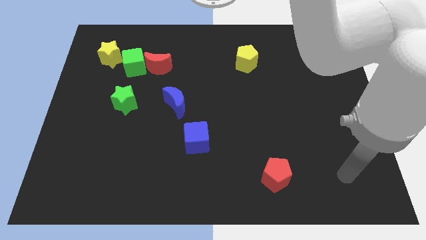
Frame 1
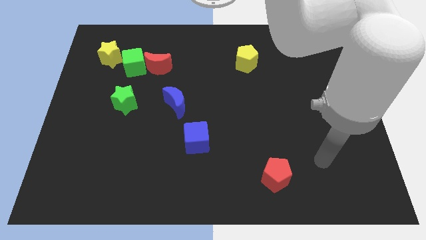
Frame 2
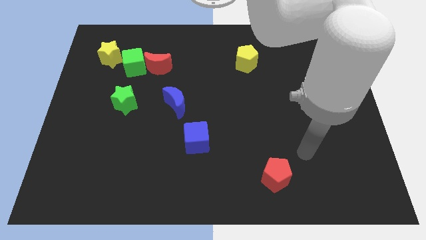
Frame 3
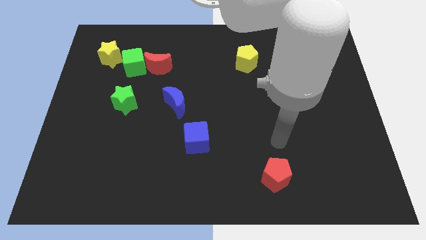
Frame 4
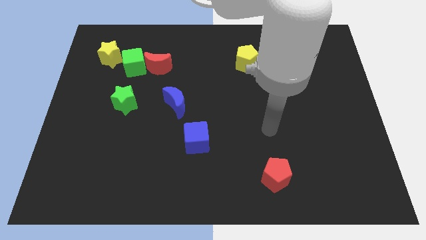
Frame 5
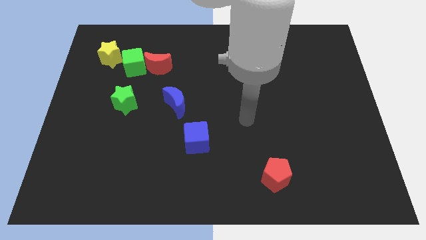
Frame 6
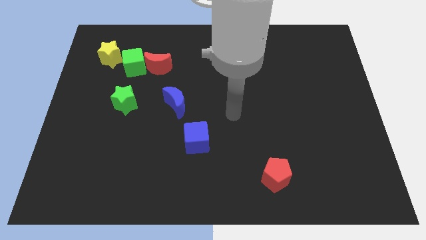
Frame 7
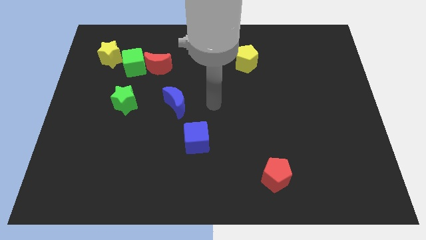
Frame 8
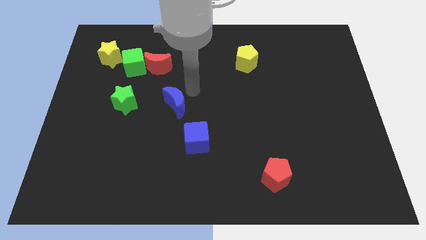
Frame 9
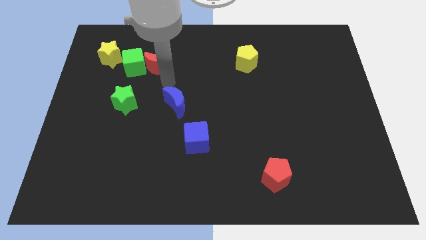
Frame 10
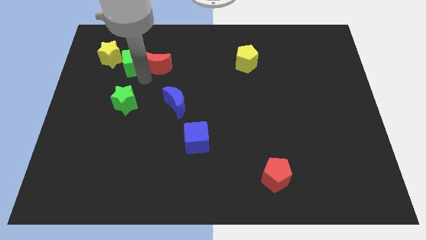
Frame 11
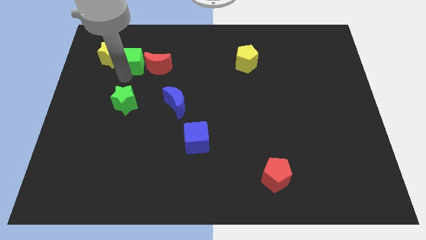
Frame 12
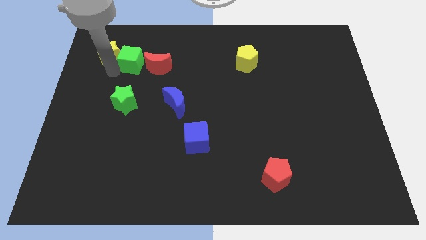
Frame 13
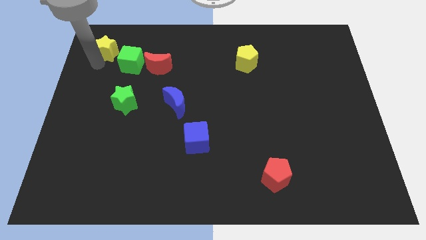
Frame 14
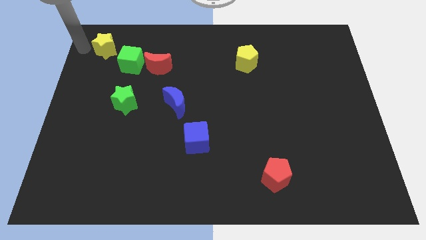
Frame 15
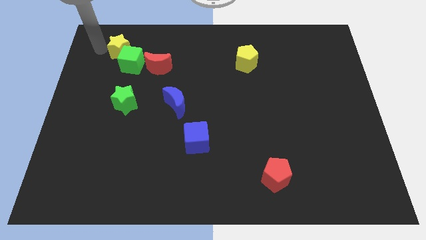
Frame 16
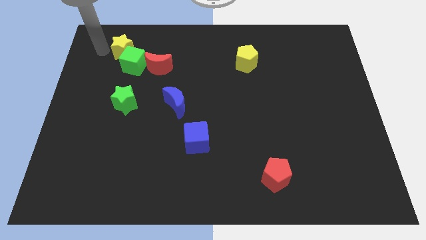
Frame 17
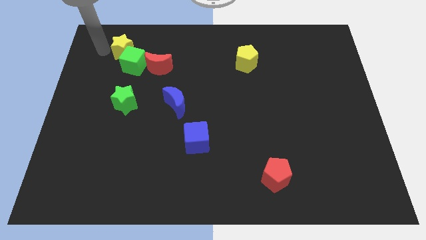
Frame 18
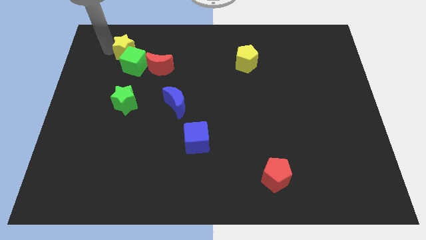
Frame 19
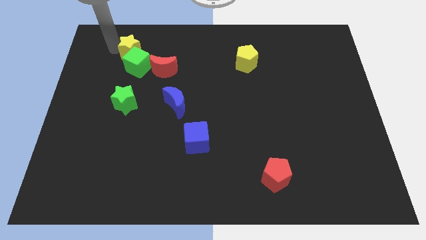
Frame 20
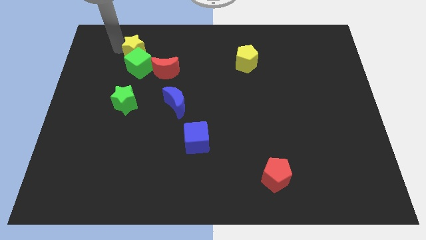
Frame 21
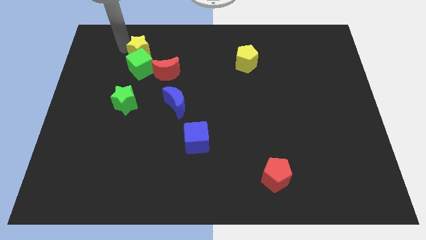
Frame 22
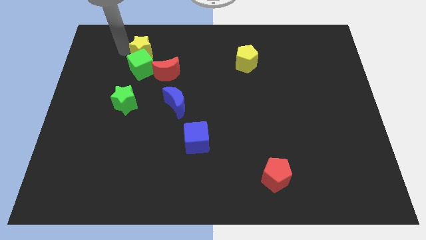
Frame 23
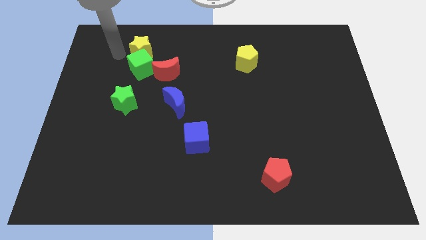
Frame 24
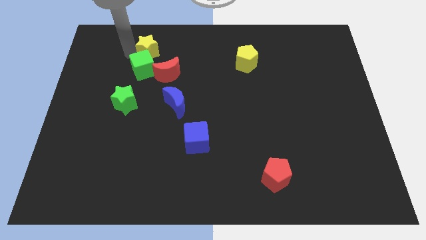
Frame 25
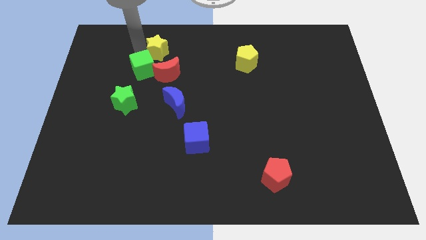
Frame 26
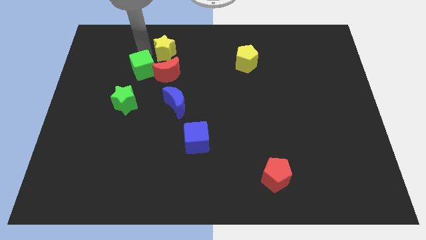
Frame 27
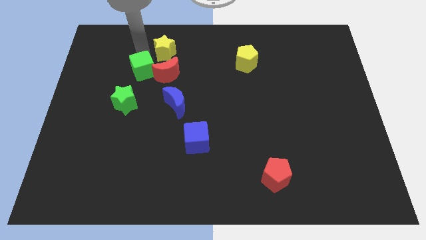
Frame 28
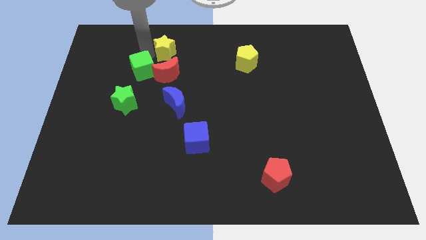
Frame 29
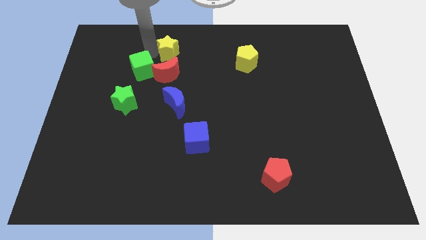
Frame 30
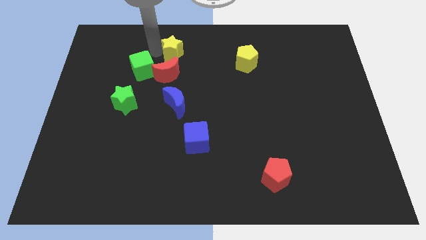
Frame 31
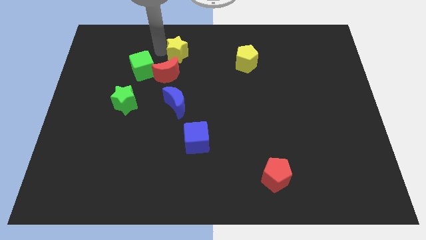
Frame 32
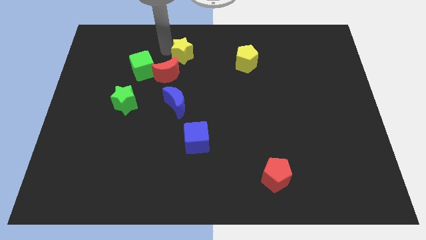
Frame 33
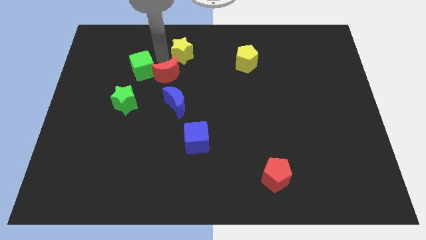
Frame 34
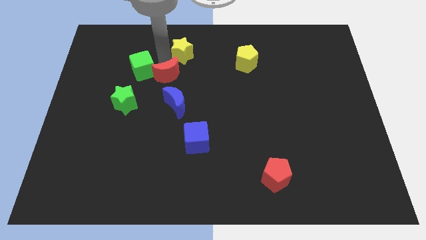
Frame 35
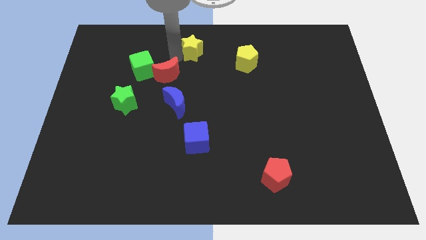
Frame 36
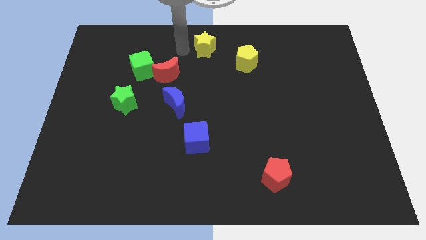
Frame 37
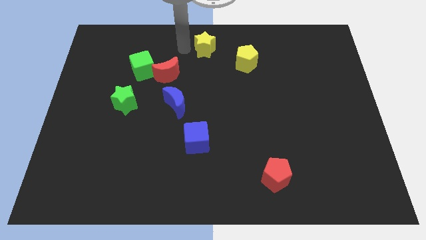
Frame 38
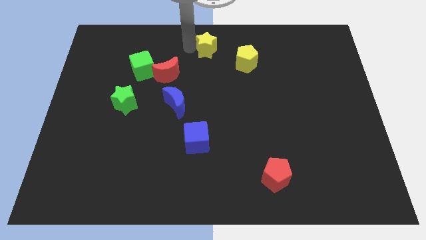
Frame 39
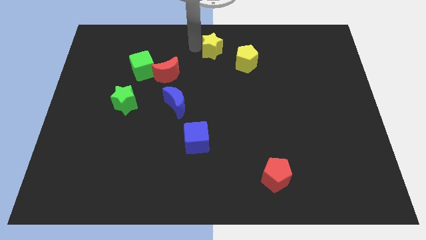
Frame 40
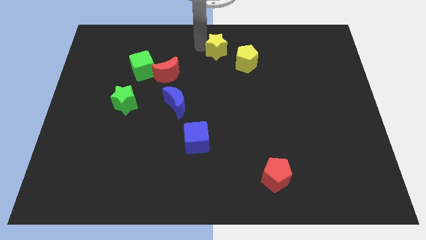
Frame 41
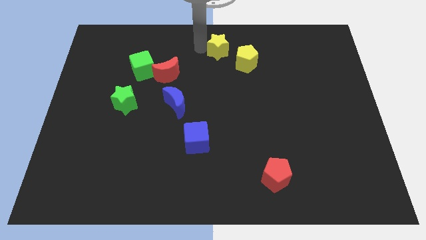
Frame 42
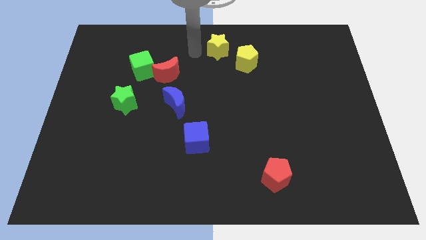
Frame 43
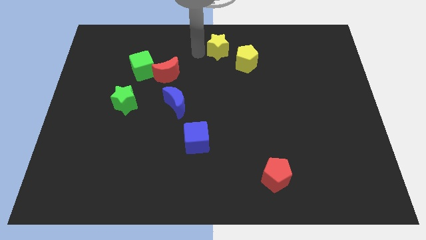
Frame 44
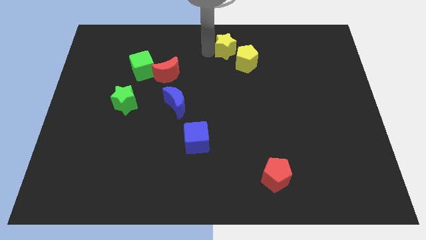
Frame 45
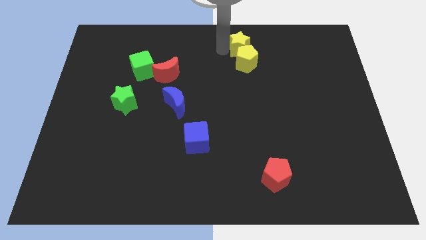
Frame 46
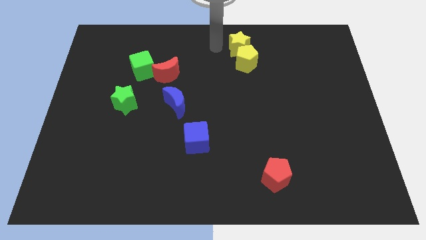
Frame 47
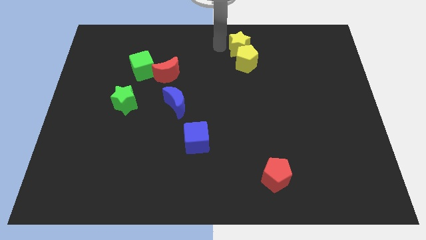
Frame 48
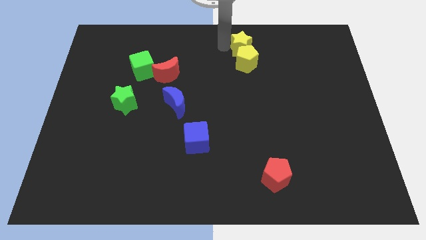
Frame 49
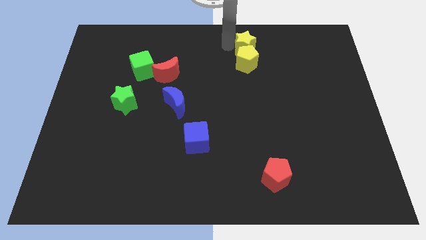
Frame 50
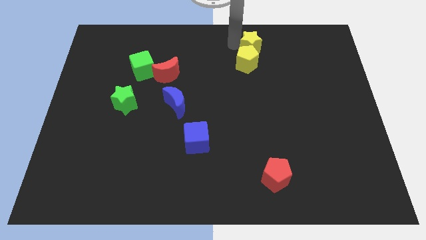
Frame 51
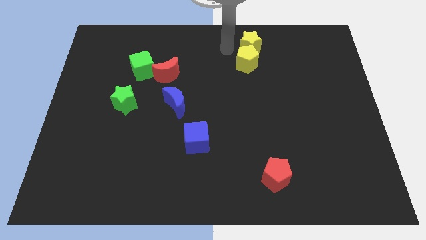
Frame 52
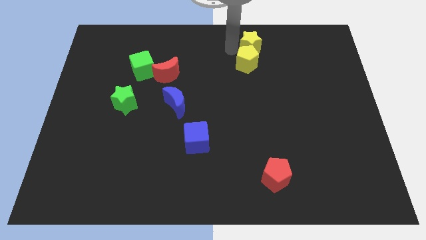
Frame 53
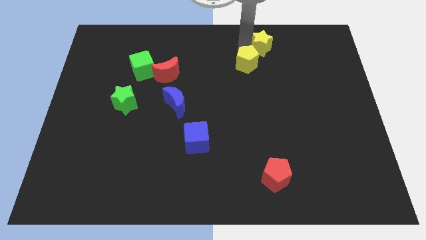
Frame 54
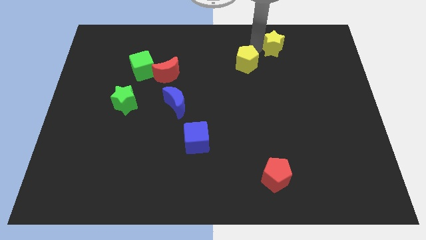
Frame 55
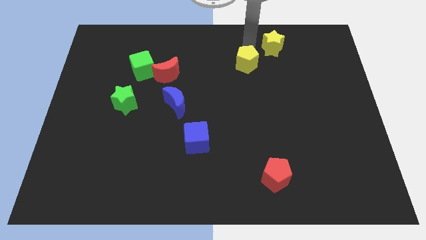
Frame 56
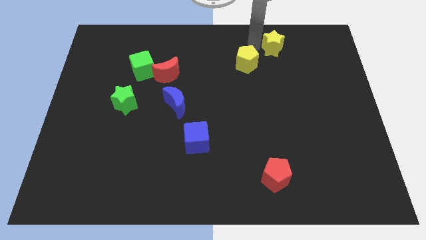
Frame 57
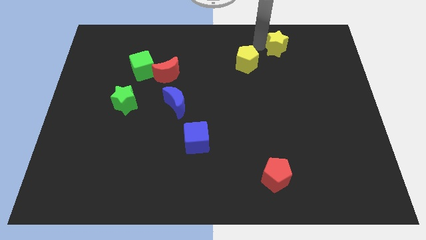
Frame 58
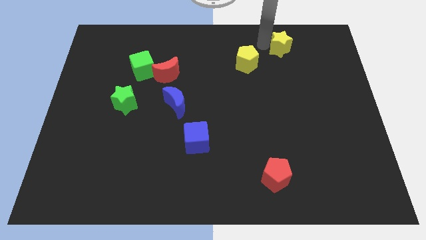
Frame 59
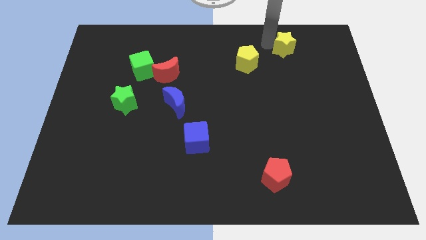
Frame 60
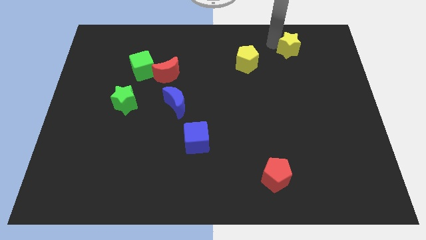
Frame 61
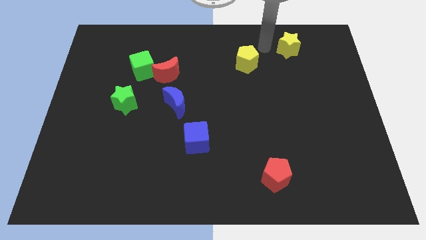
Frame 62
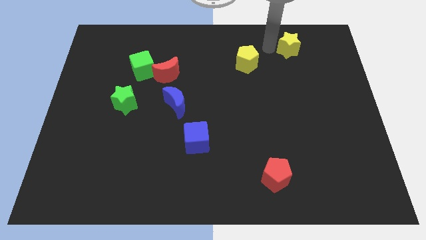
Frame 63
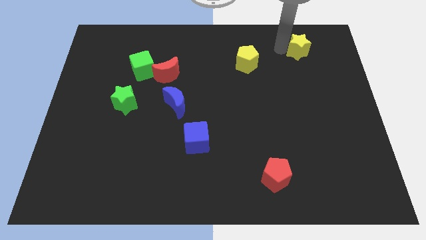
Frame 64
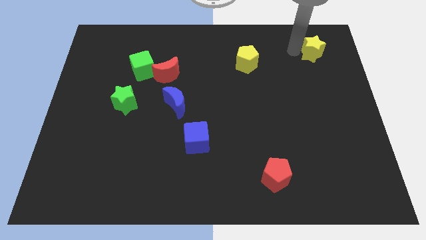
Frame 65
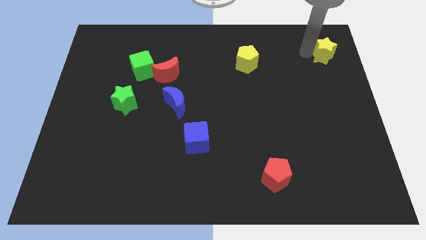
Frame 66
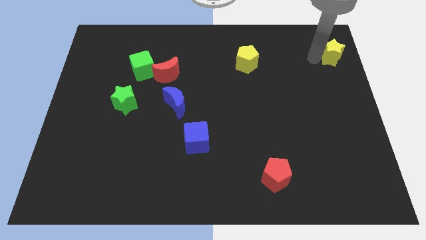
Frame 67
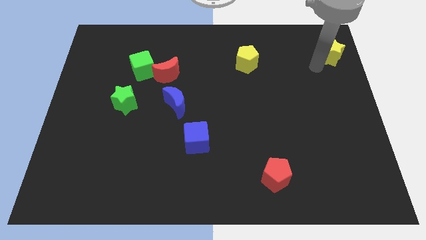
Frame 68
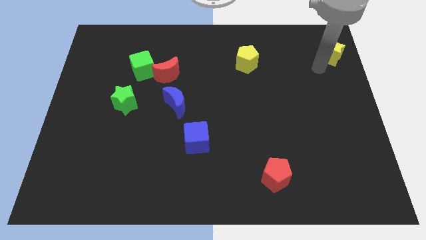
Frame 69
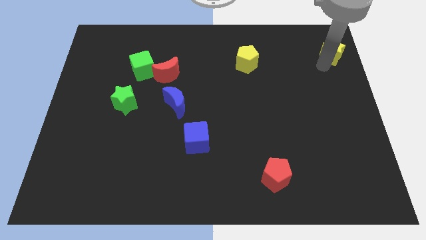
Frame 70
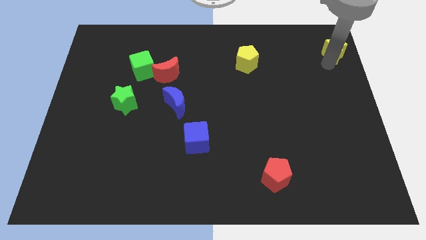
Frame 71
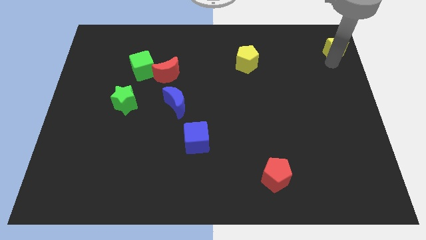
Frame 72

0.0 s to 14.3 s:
slide the yellow star to the upper right corner
